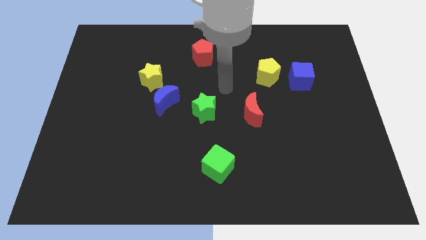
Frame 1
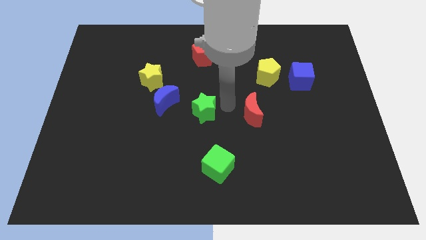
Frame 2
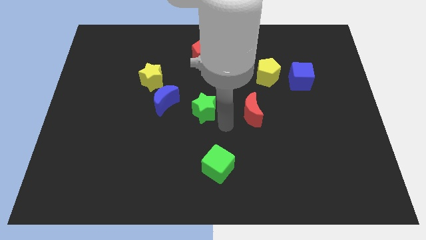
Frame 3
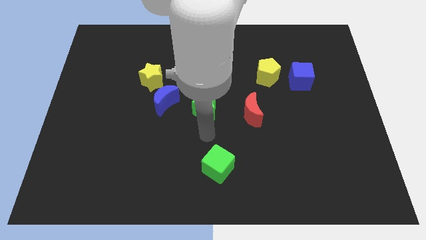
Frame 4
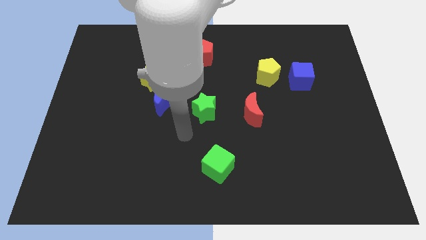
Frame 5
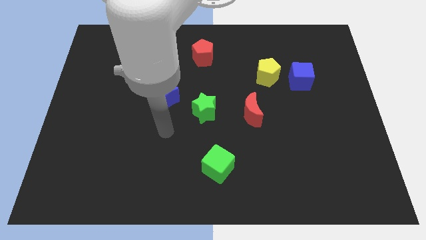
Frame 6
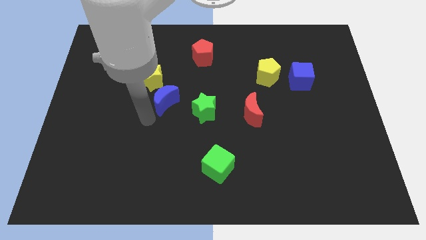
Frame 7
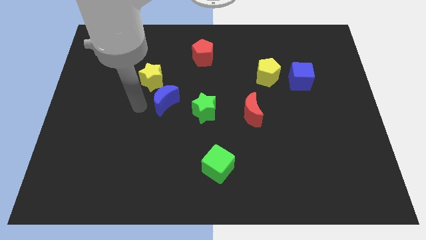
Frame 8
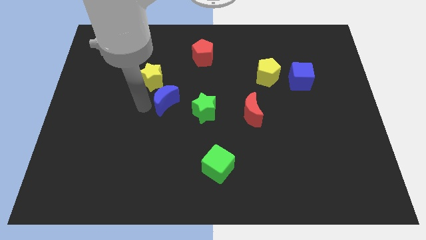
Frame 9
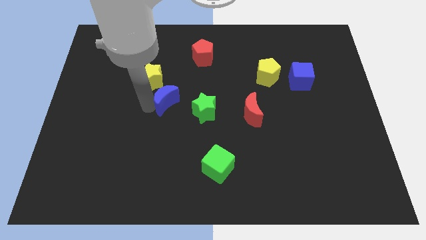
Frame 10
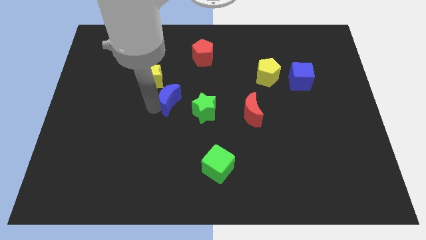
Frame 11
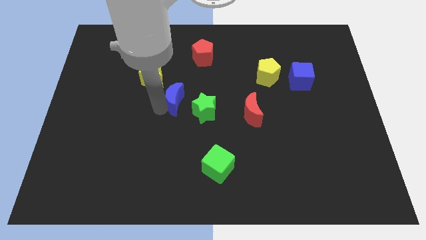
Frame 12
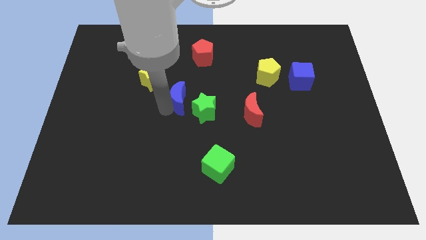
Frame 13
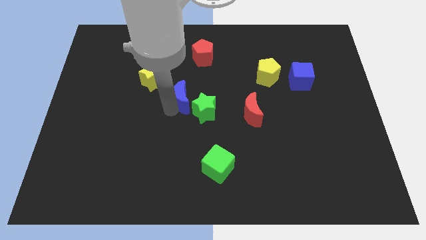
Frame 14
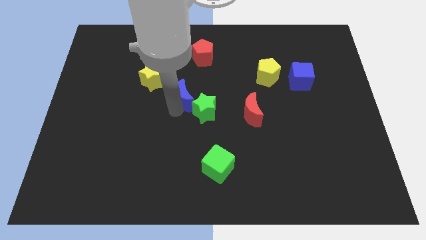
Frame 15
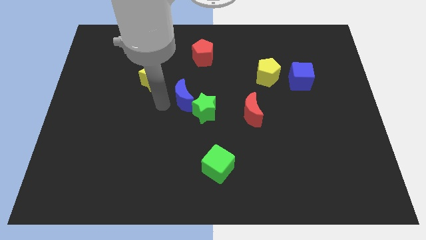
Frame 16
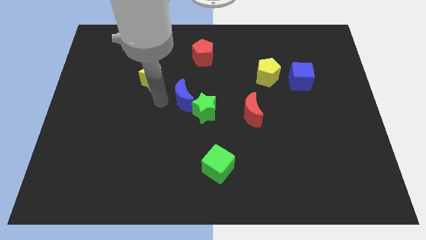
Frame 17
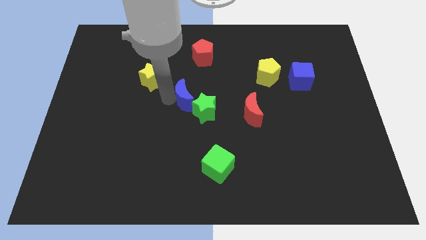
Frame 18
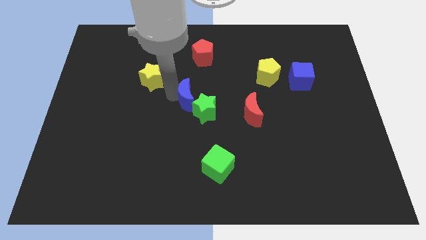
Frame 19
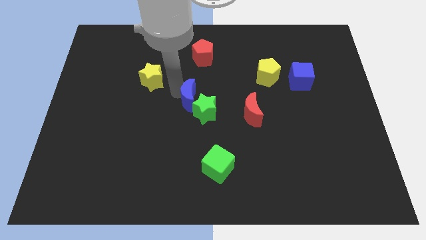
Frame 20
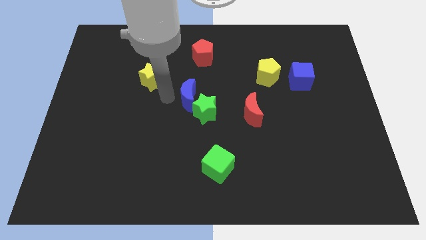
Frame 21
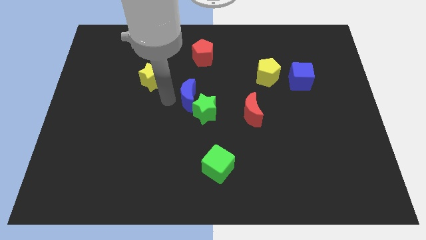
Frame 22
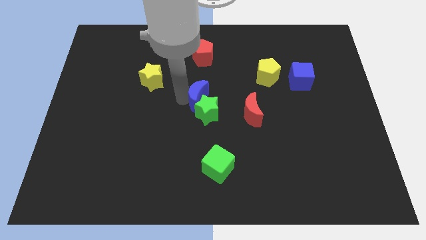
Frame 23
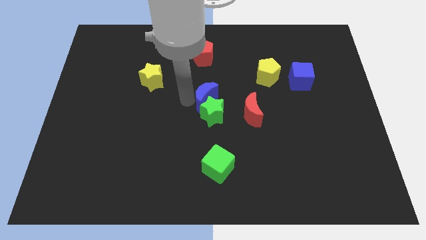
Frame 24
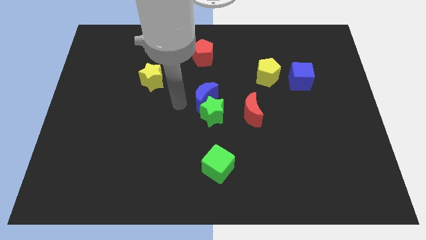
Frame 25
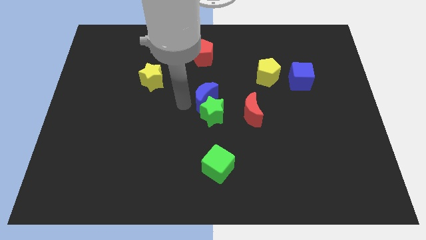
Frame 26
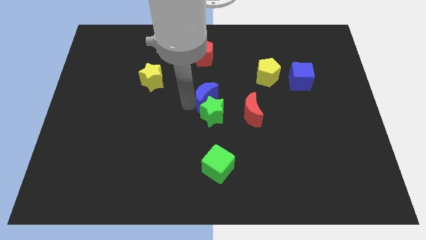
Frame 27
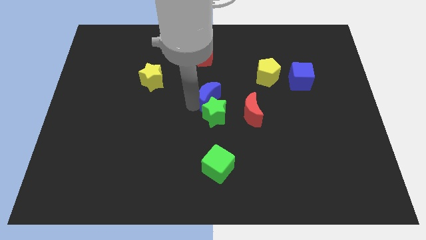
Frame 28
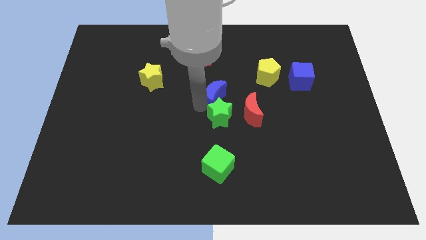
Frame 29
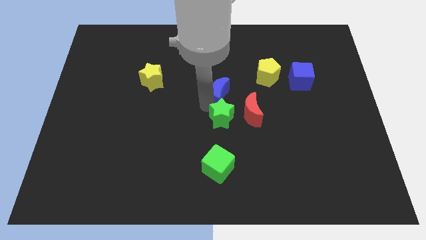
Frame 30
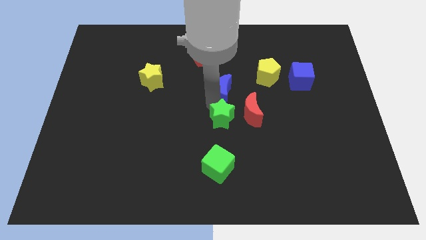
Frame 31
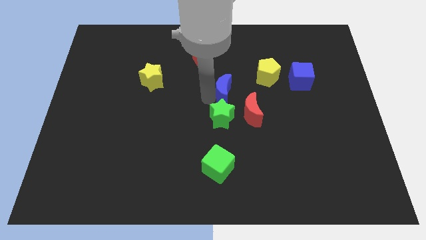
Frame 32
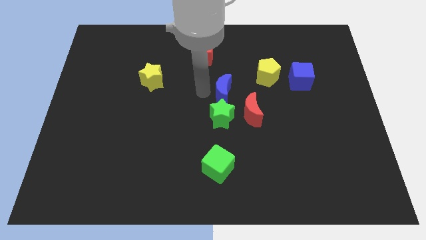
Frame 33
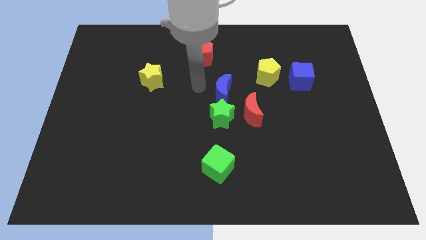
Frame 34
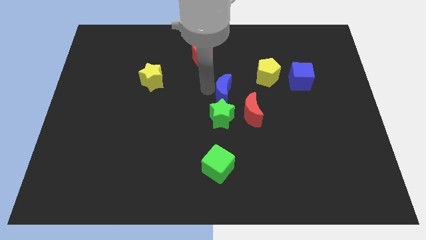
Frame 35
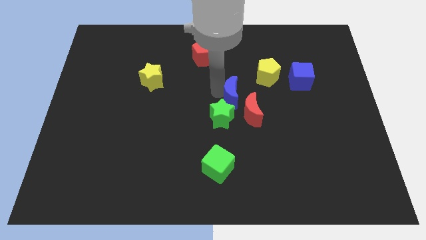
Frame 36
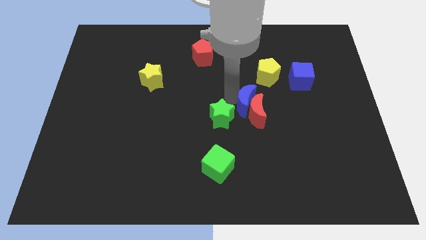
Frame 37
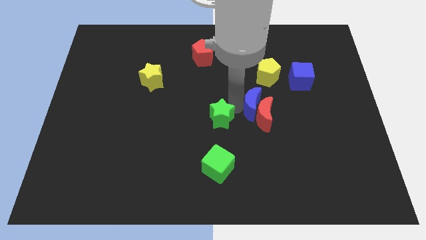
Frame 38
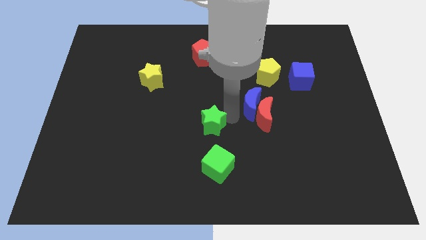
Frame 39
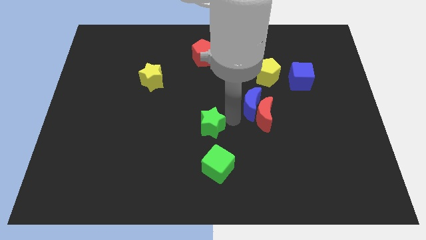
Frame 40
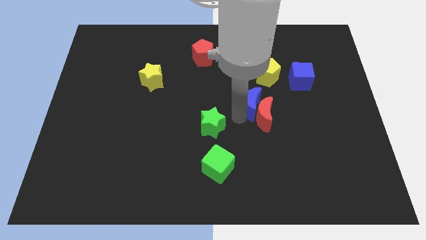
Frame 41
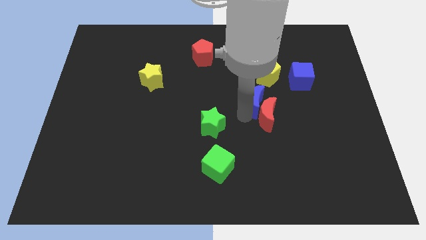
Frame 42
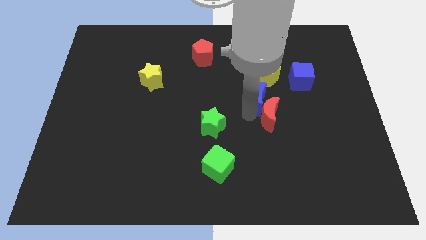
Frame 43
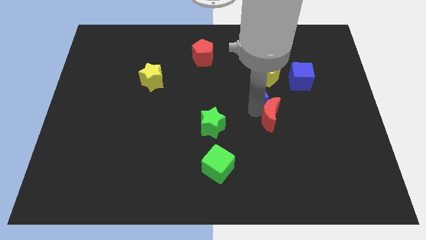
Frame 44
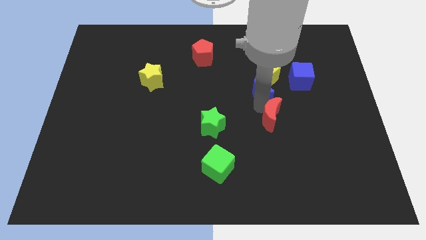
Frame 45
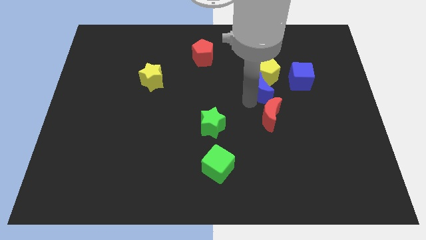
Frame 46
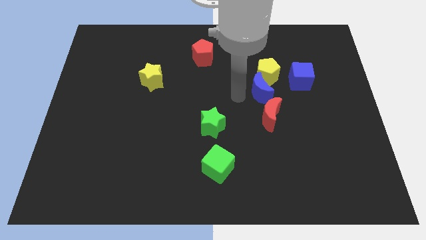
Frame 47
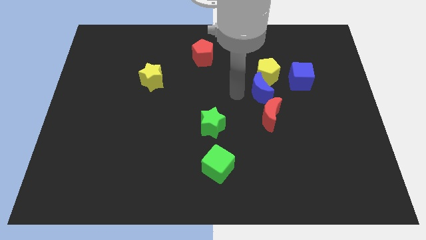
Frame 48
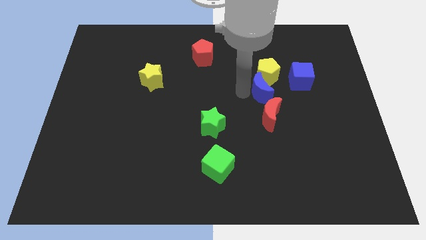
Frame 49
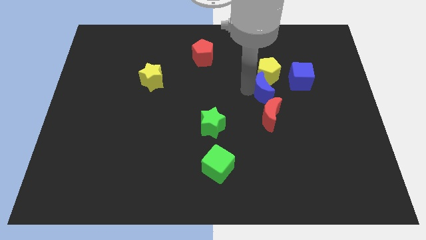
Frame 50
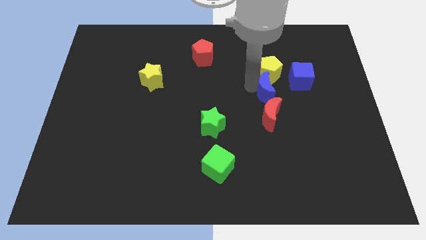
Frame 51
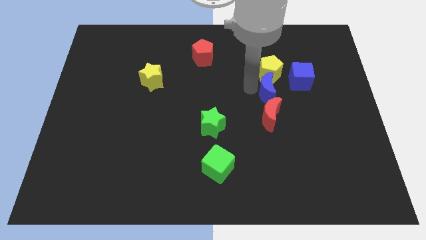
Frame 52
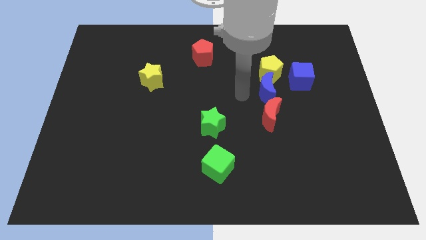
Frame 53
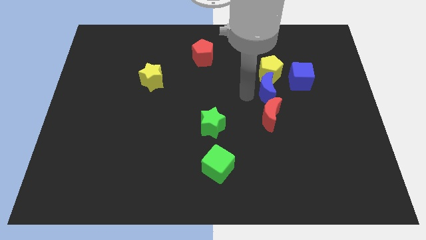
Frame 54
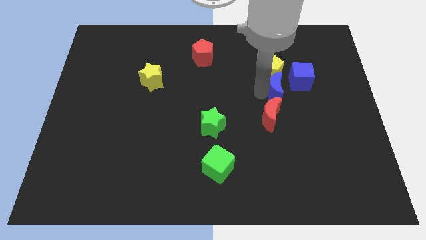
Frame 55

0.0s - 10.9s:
slide the blue moon to the bottom right of the yellow pentagon

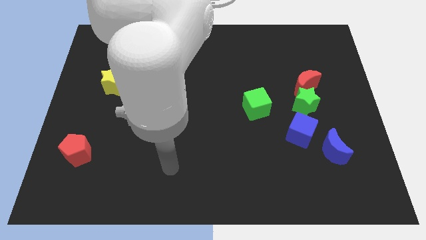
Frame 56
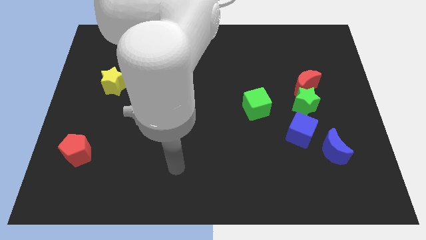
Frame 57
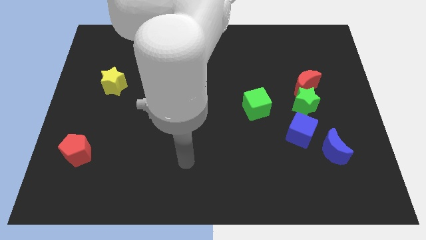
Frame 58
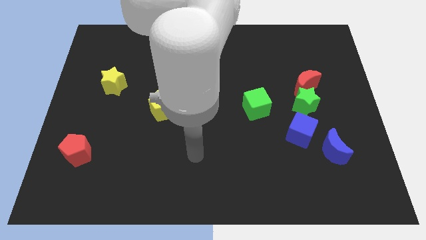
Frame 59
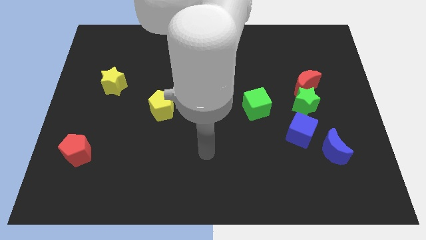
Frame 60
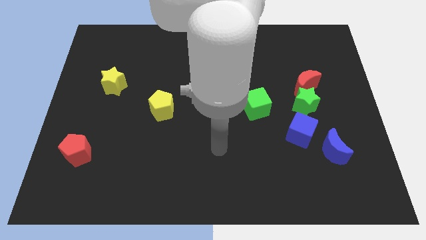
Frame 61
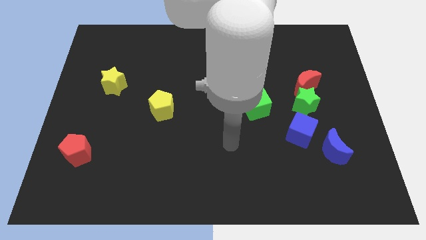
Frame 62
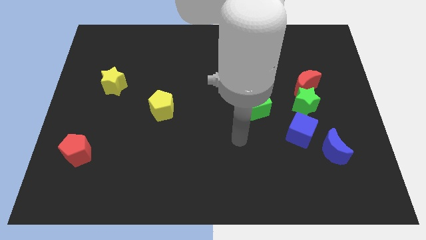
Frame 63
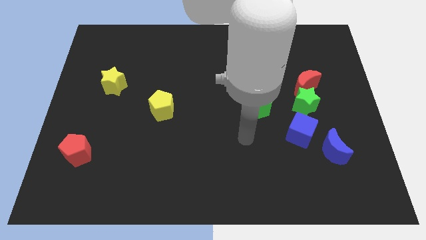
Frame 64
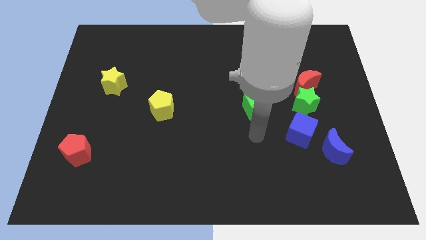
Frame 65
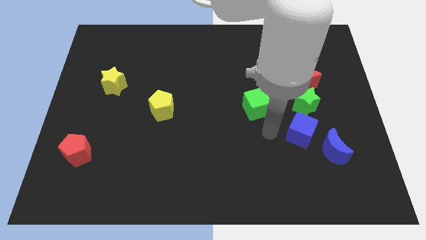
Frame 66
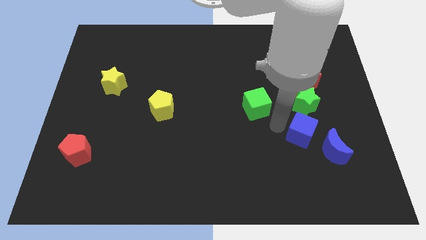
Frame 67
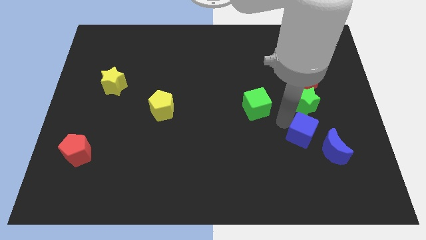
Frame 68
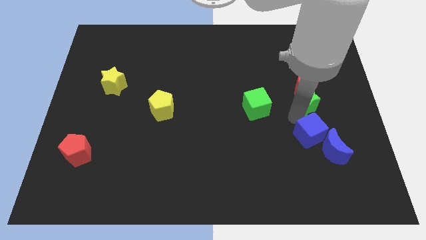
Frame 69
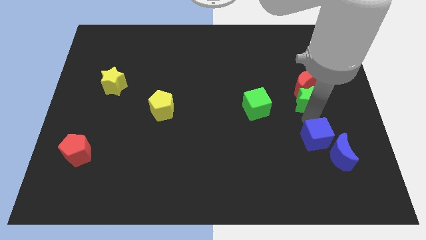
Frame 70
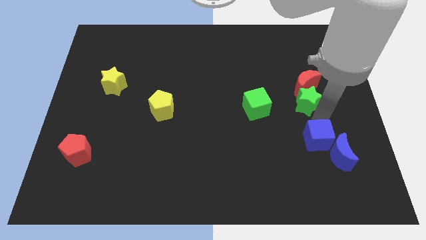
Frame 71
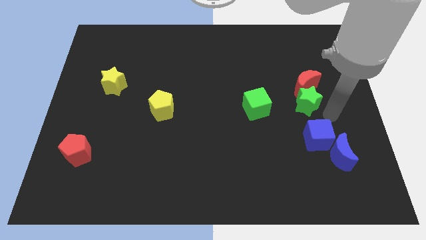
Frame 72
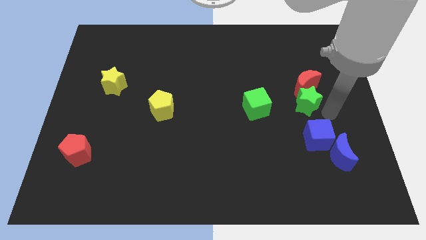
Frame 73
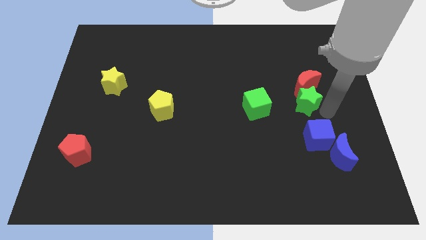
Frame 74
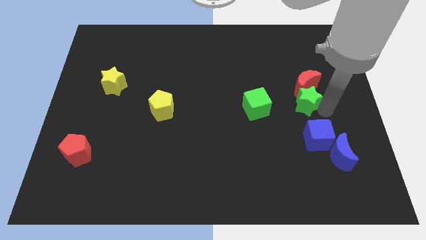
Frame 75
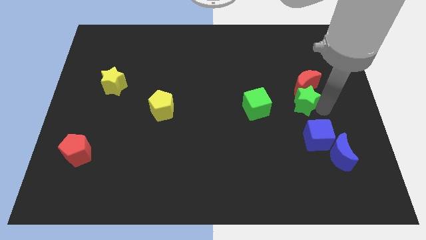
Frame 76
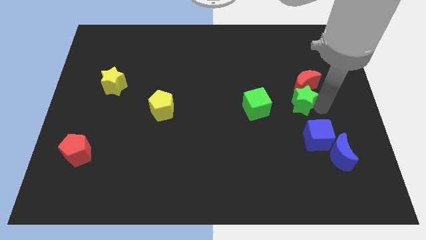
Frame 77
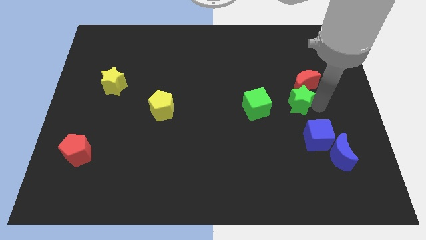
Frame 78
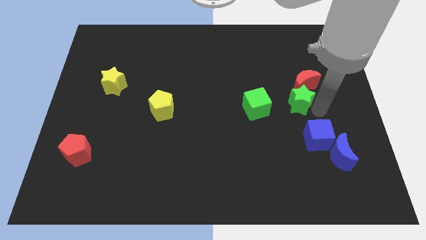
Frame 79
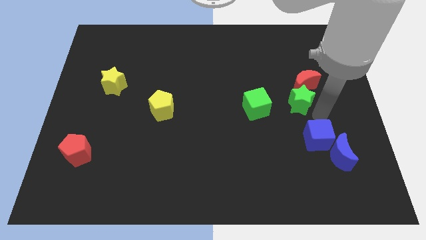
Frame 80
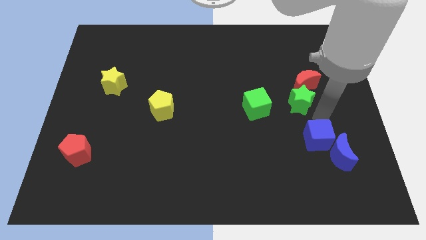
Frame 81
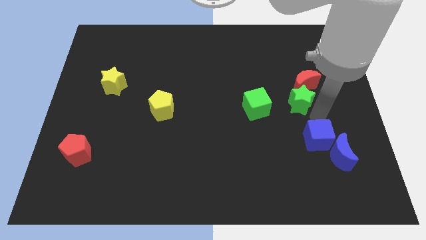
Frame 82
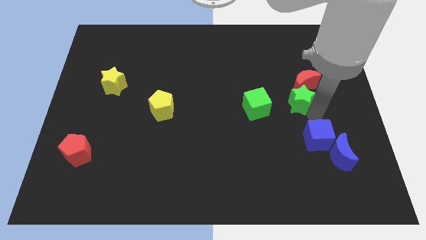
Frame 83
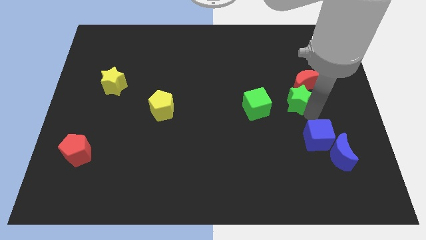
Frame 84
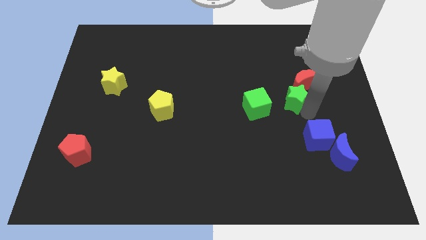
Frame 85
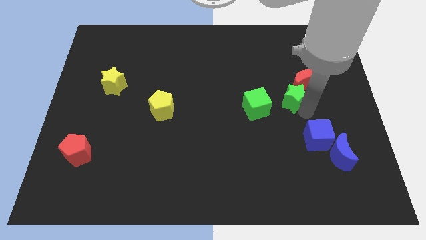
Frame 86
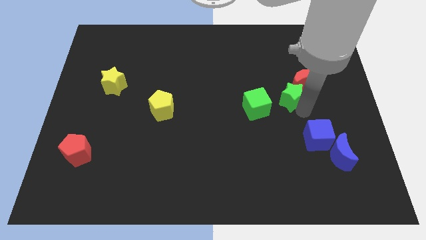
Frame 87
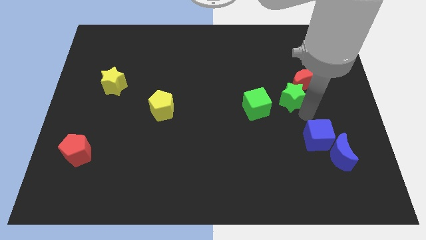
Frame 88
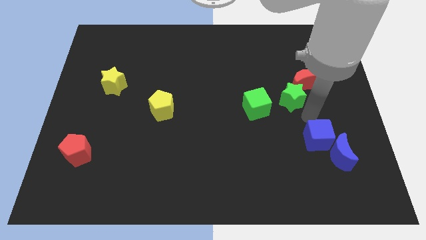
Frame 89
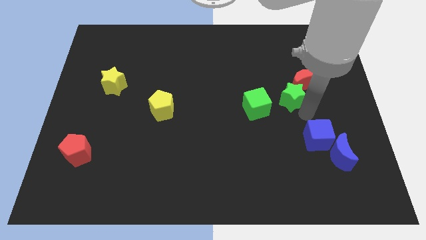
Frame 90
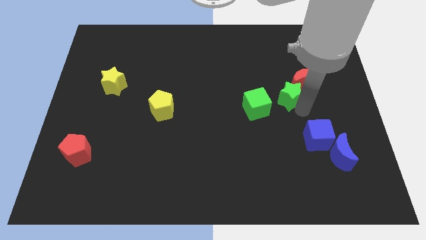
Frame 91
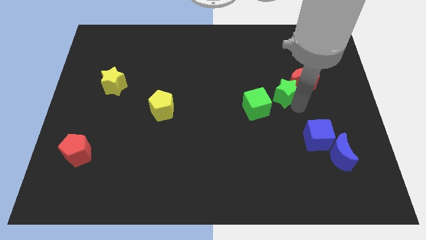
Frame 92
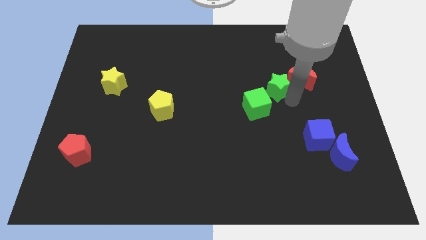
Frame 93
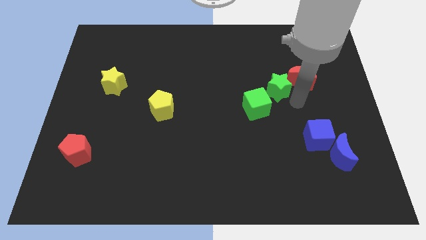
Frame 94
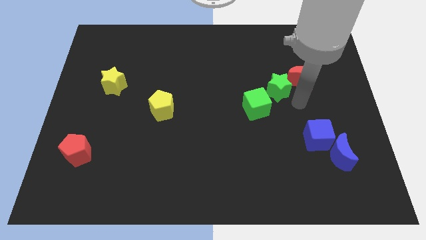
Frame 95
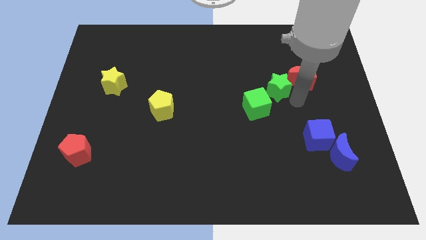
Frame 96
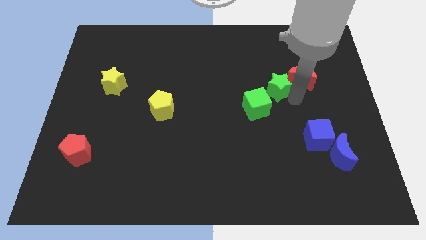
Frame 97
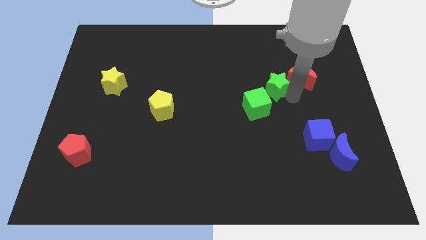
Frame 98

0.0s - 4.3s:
slide the green star above the green cube
